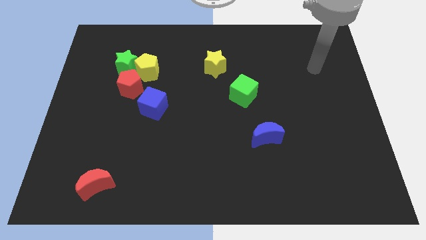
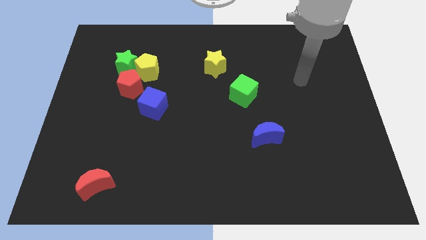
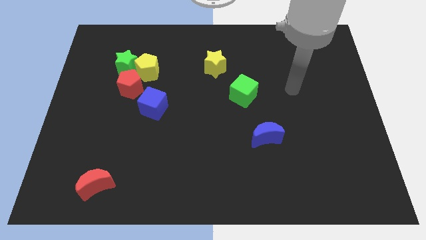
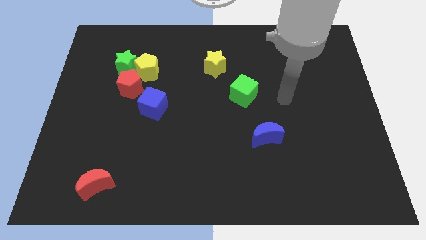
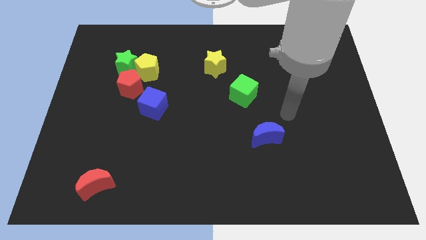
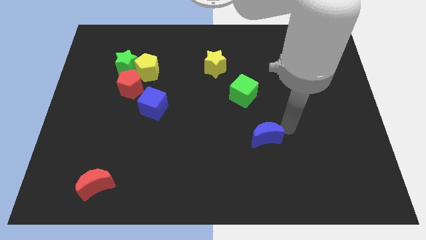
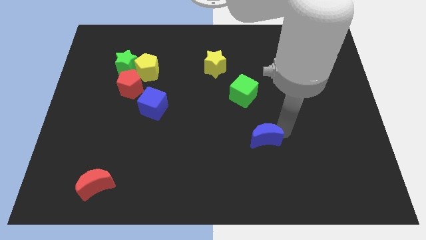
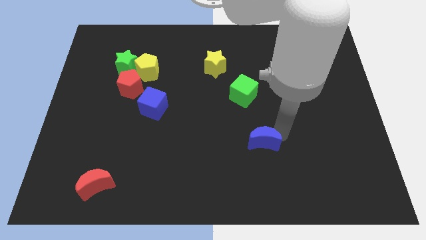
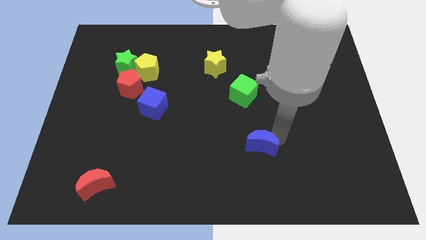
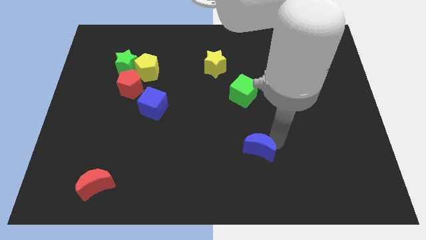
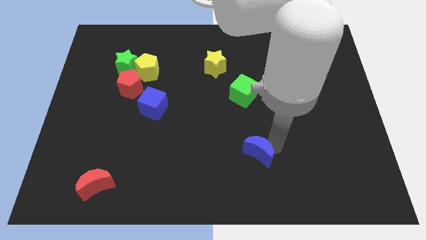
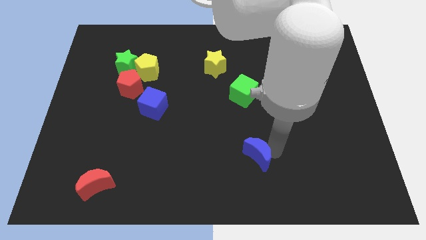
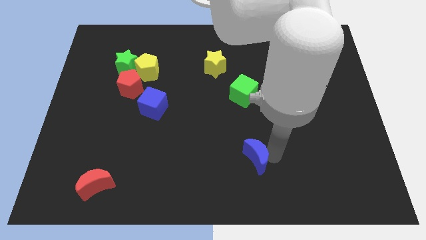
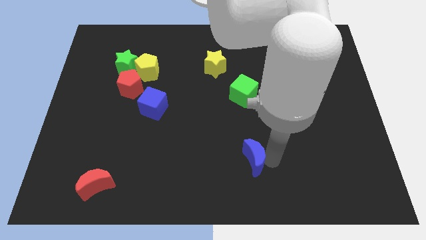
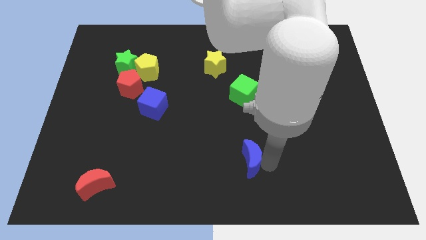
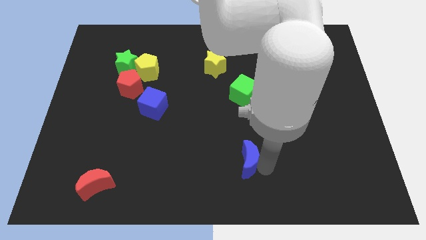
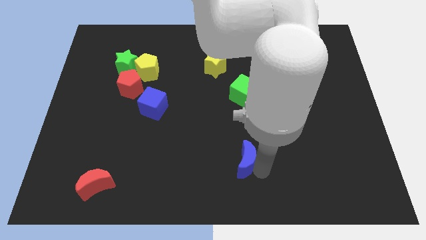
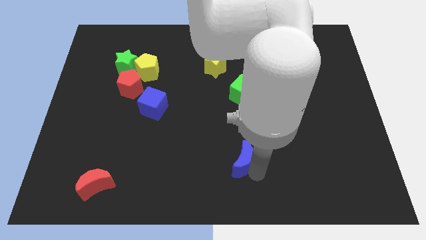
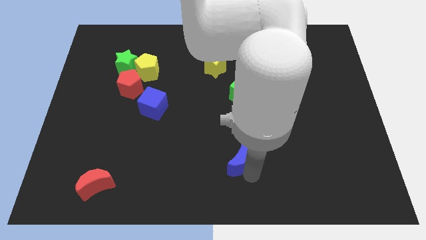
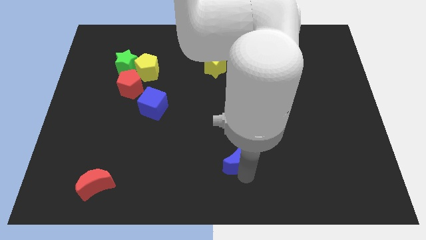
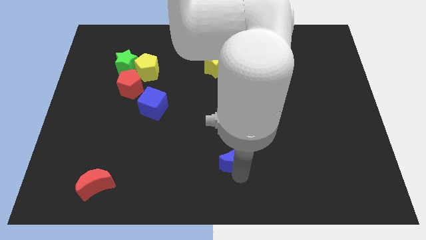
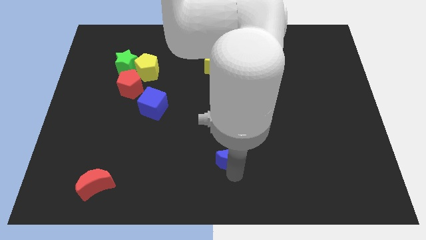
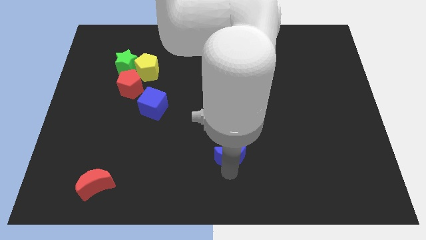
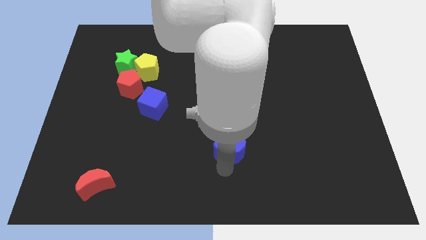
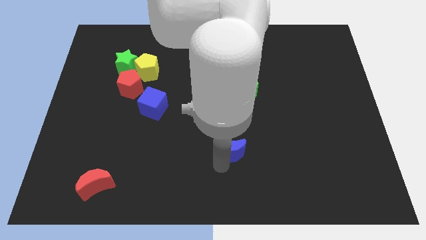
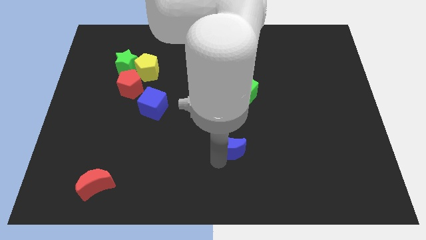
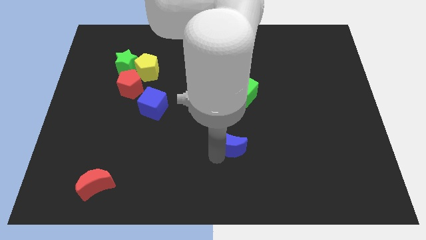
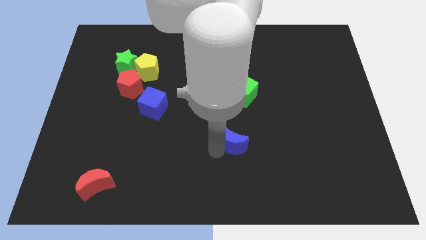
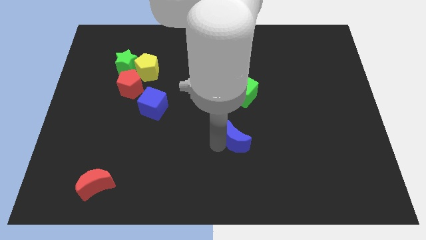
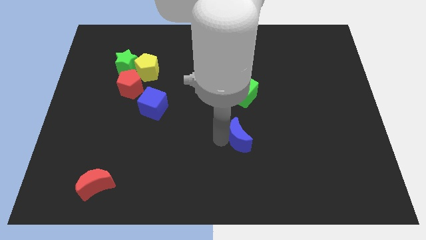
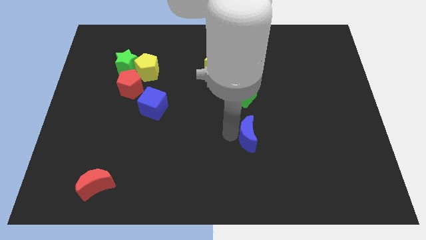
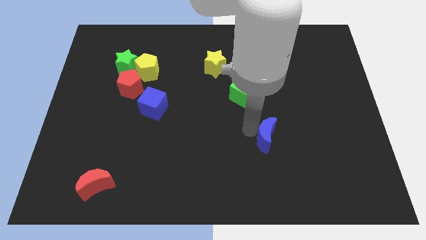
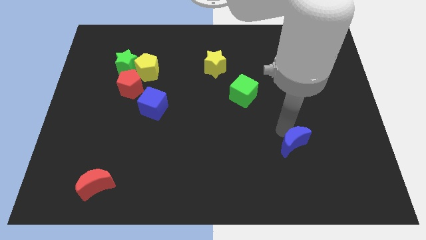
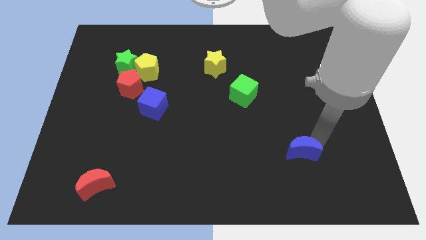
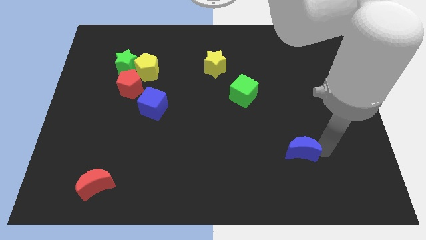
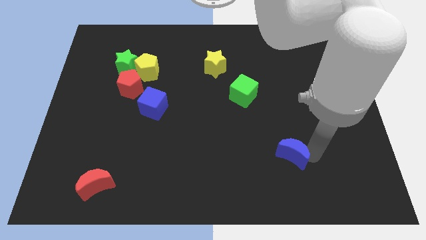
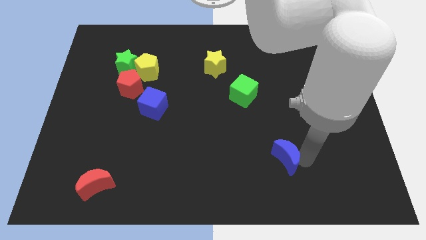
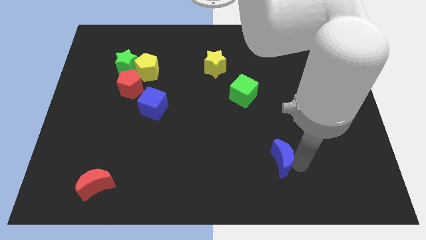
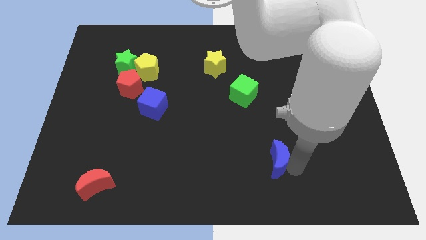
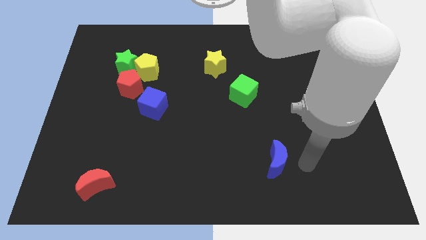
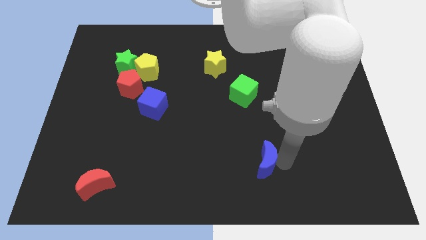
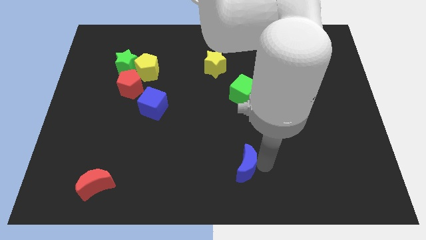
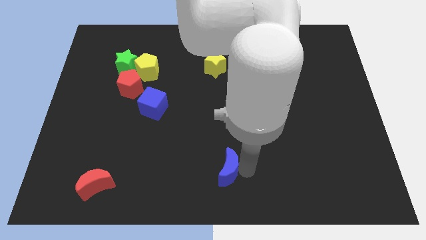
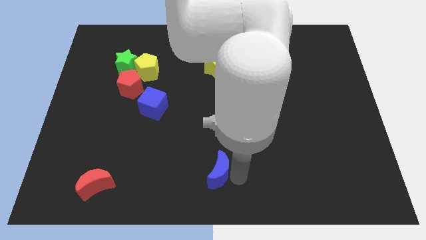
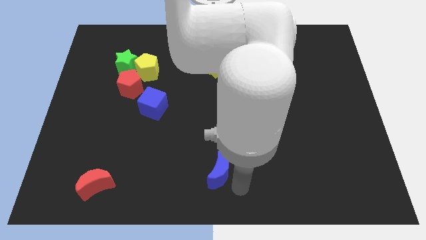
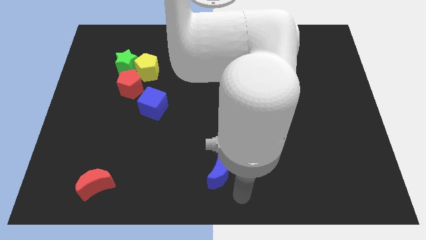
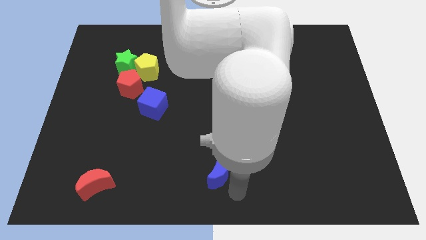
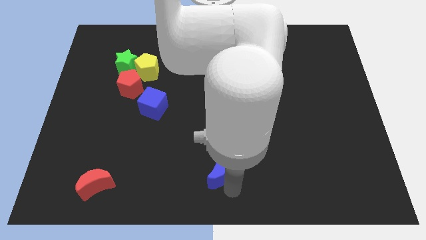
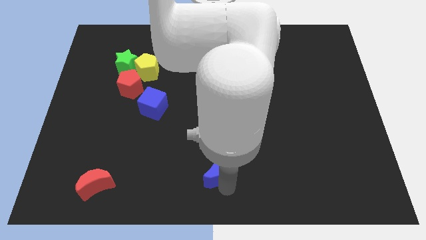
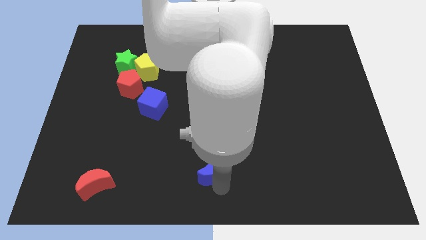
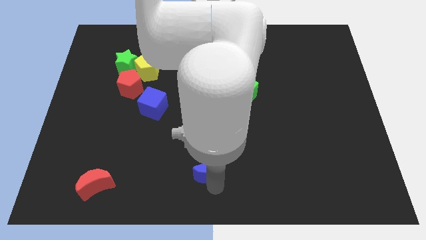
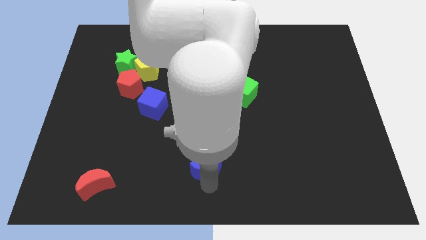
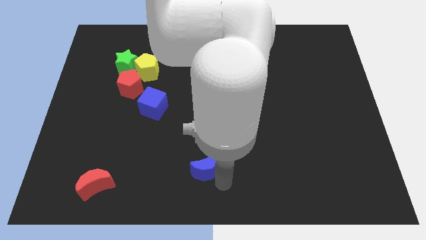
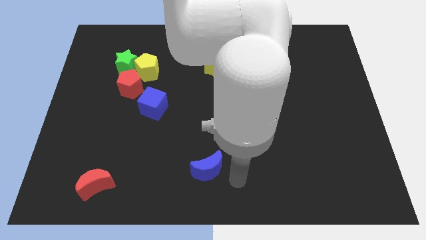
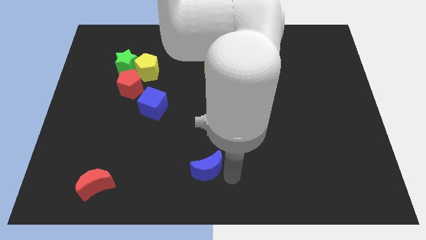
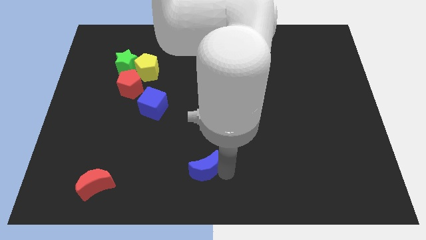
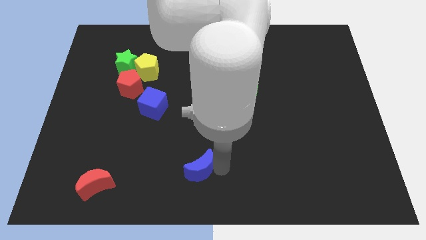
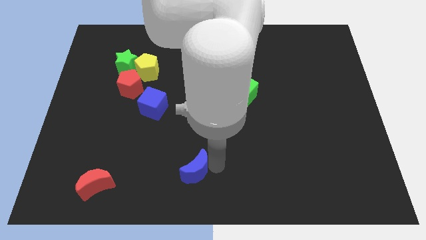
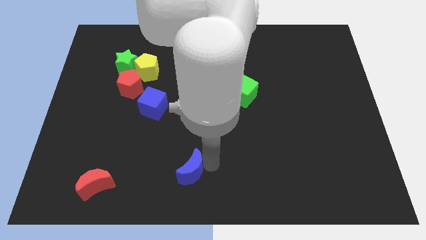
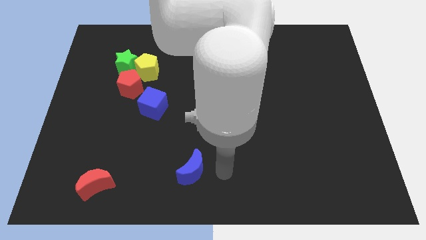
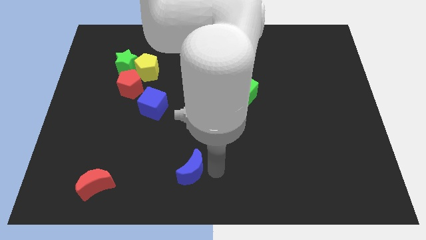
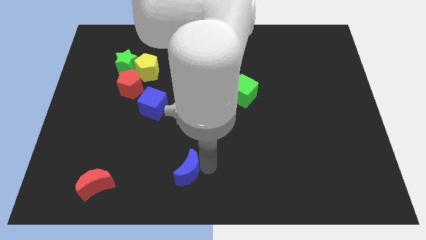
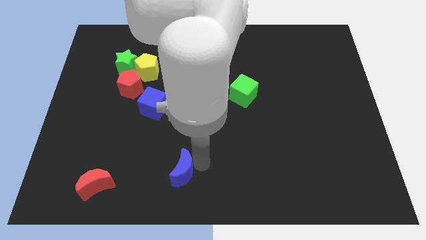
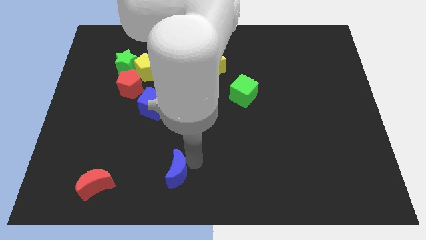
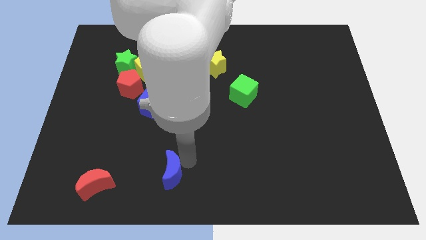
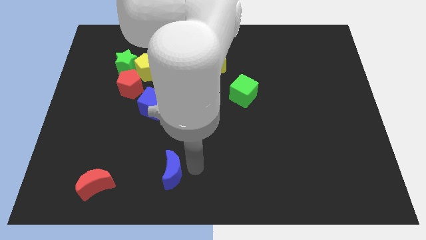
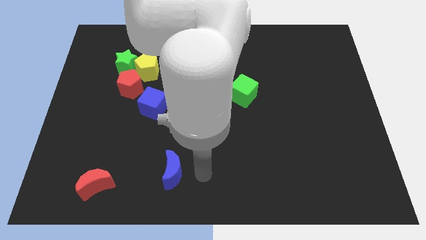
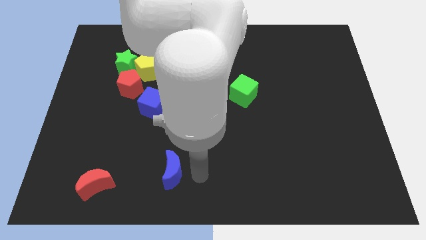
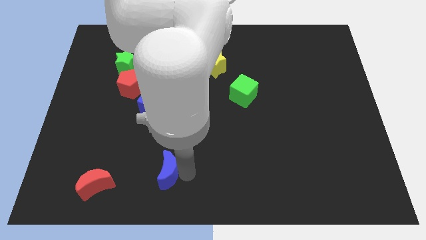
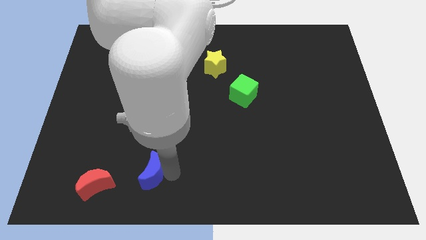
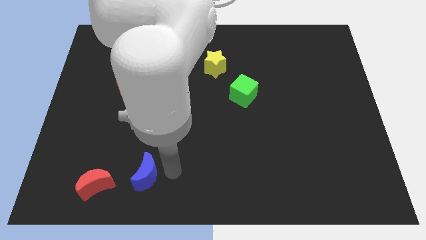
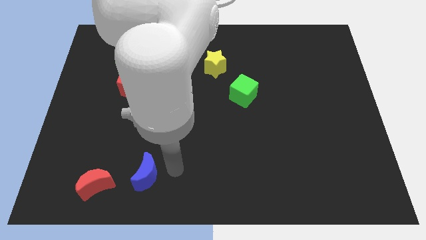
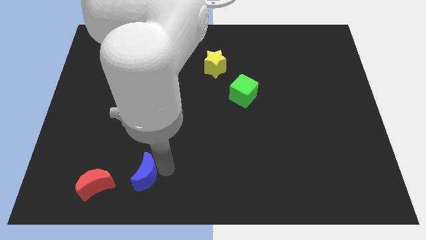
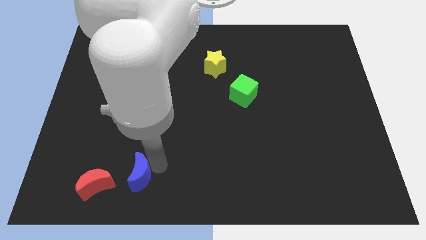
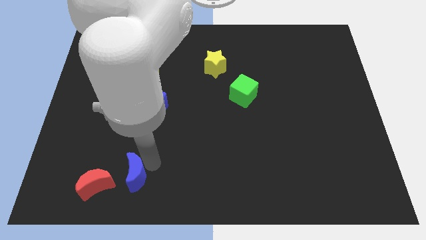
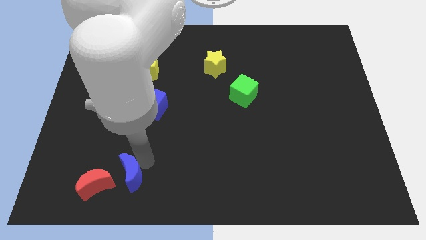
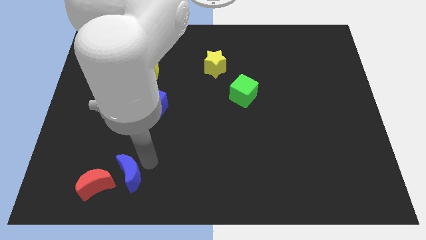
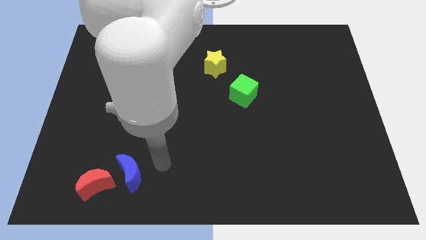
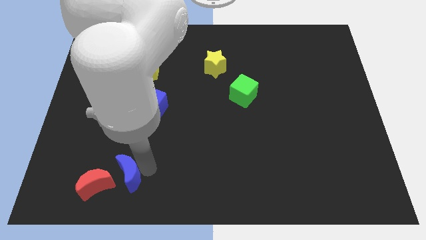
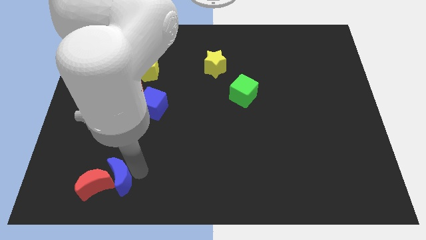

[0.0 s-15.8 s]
push the blue moon close to the red moon
